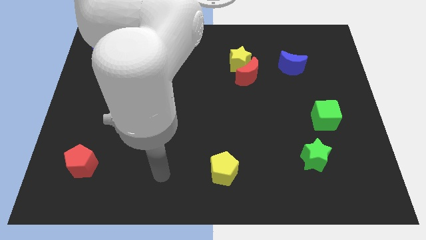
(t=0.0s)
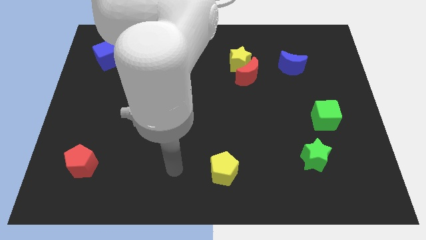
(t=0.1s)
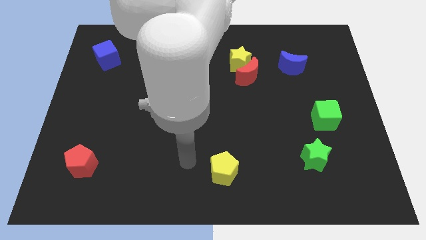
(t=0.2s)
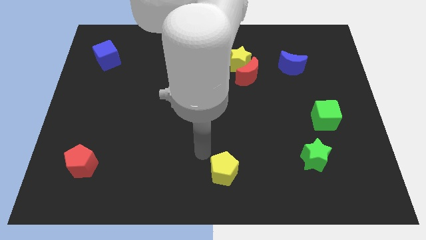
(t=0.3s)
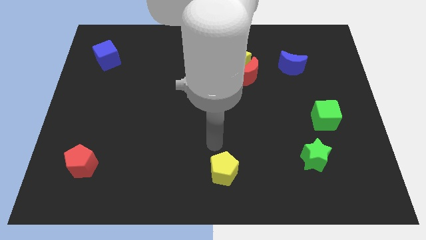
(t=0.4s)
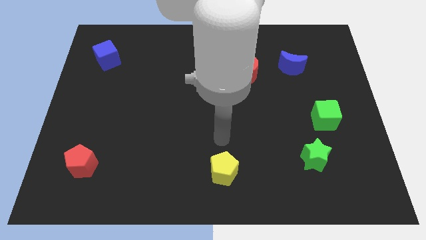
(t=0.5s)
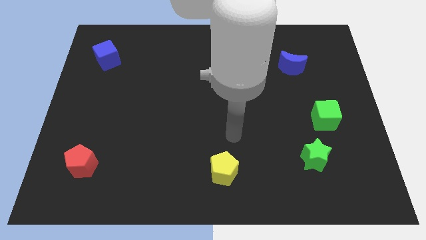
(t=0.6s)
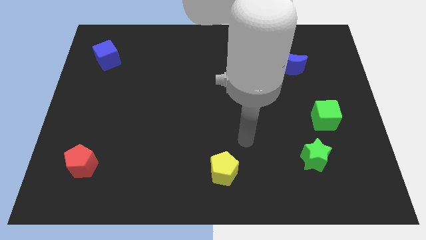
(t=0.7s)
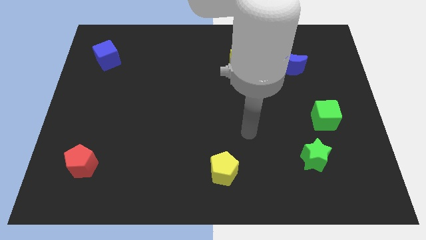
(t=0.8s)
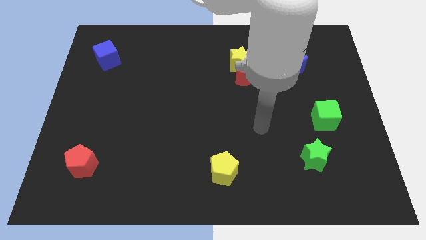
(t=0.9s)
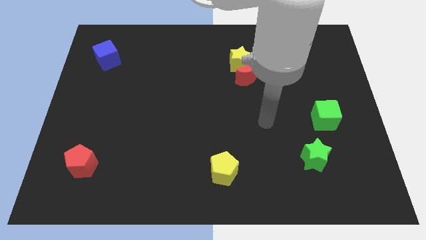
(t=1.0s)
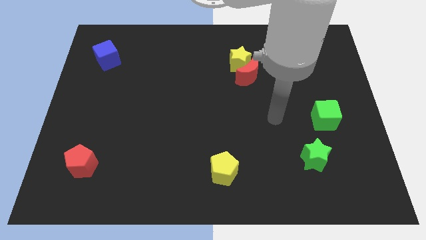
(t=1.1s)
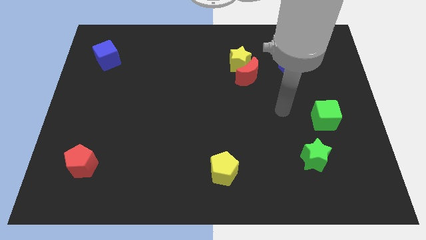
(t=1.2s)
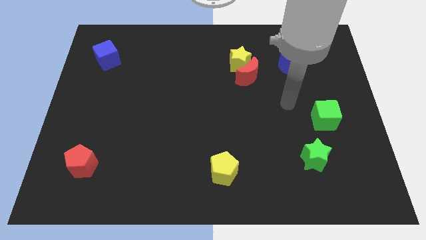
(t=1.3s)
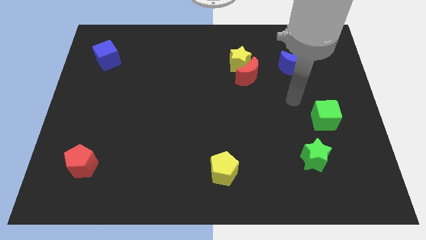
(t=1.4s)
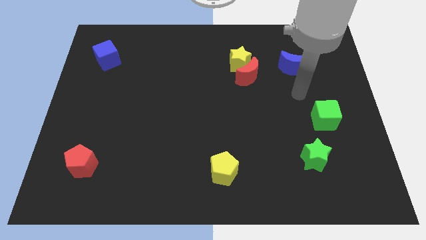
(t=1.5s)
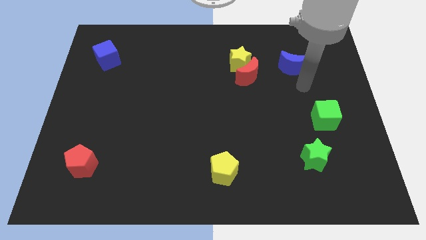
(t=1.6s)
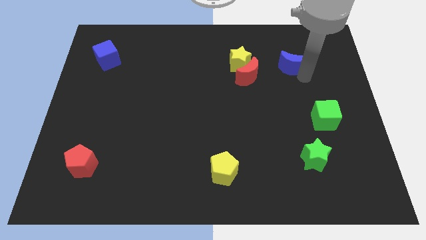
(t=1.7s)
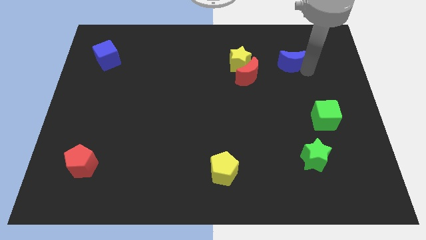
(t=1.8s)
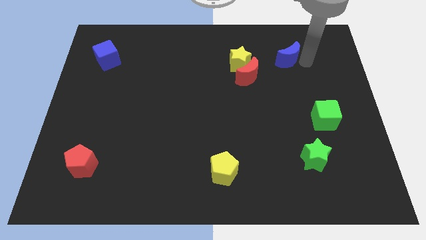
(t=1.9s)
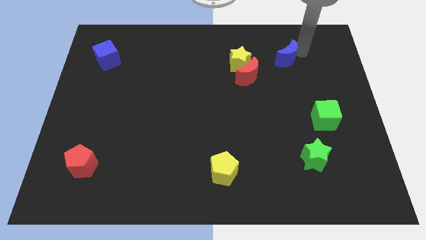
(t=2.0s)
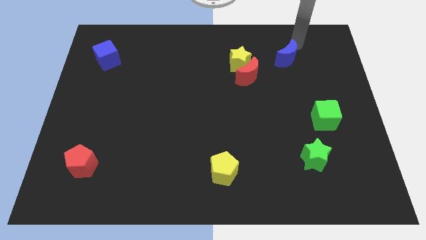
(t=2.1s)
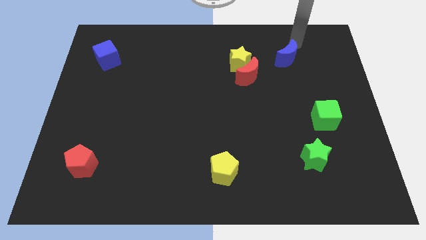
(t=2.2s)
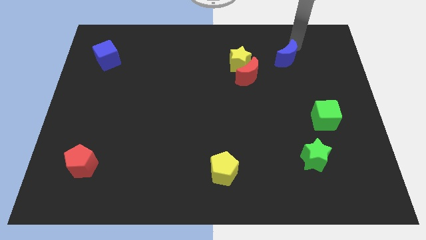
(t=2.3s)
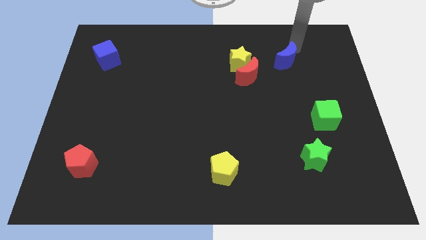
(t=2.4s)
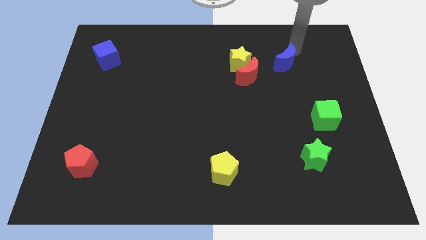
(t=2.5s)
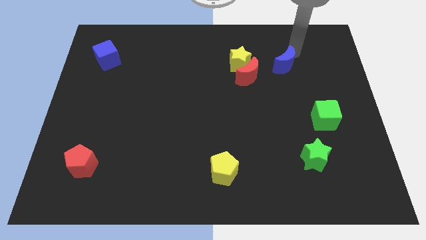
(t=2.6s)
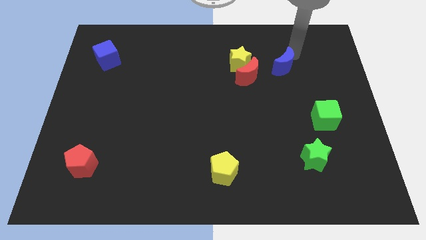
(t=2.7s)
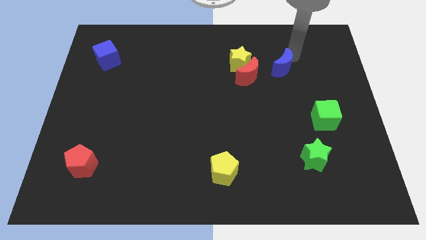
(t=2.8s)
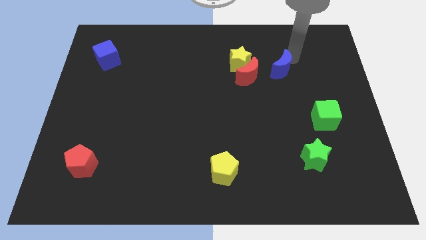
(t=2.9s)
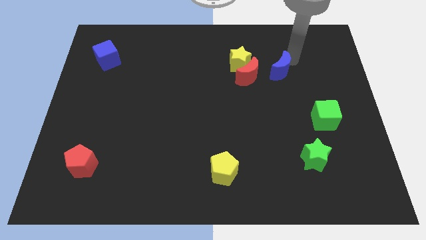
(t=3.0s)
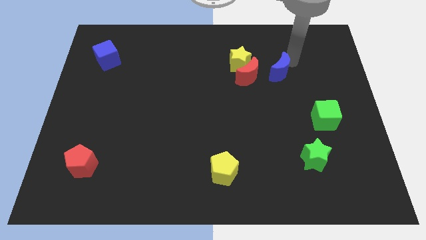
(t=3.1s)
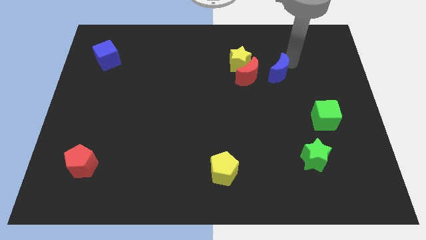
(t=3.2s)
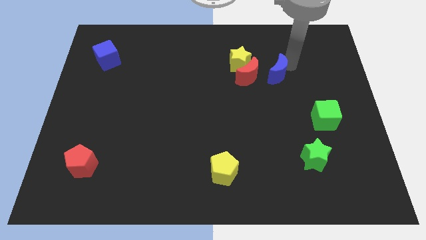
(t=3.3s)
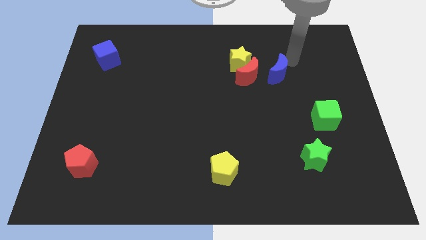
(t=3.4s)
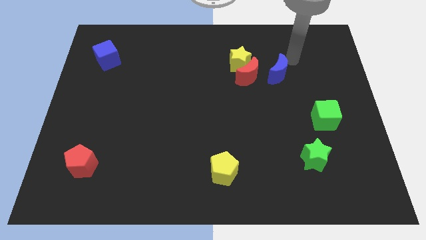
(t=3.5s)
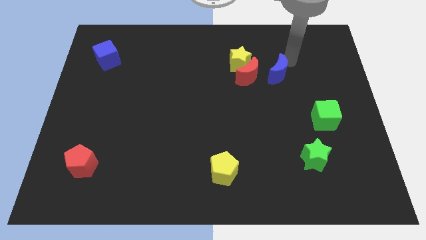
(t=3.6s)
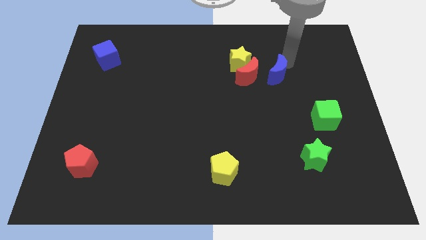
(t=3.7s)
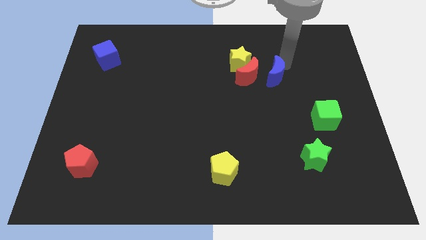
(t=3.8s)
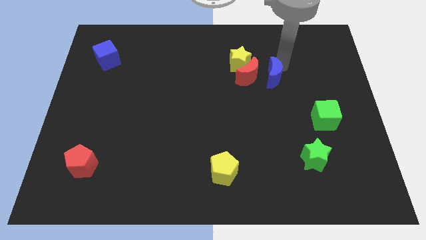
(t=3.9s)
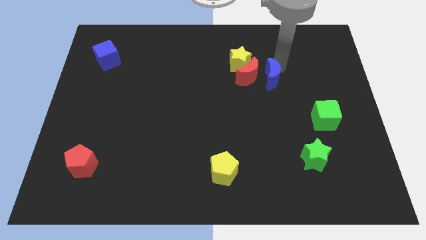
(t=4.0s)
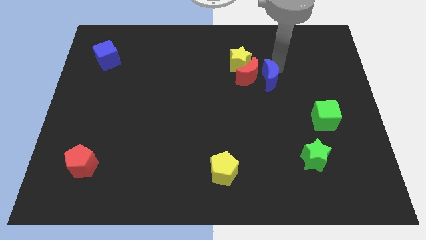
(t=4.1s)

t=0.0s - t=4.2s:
slightly push the blue moon down and to the left

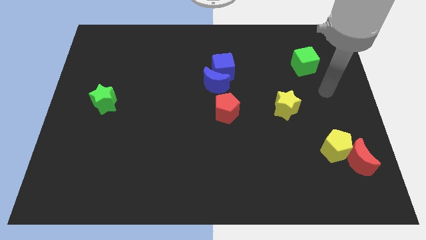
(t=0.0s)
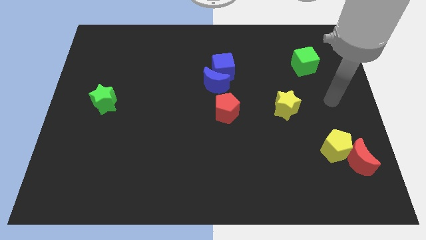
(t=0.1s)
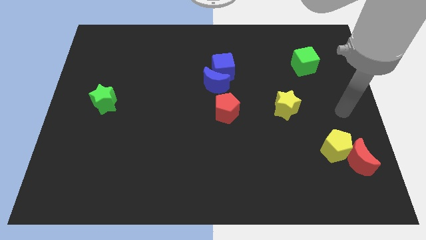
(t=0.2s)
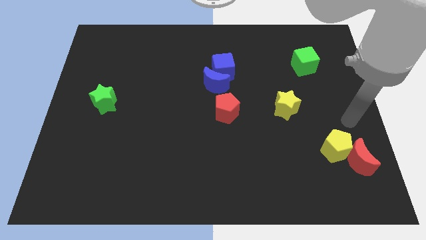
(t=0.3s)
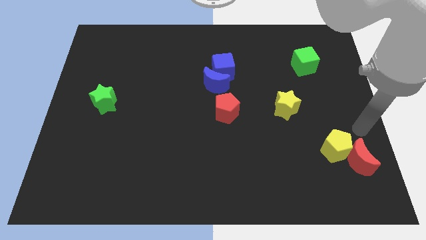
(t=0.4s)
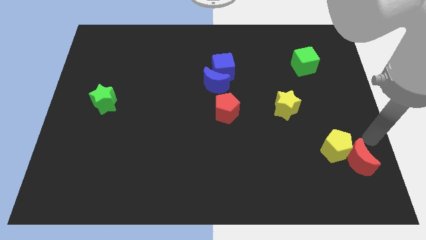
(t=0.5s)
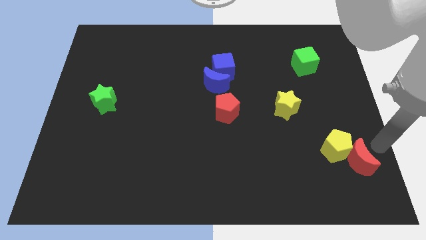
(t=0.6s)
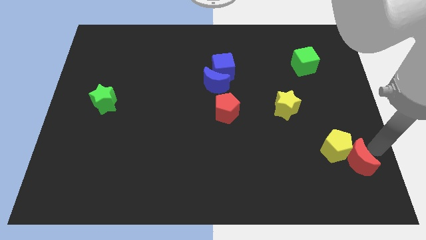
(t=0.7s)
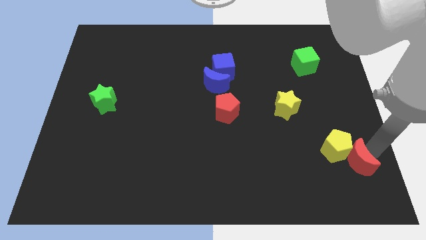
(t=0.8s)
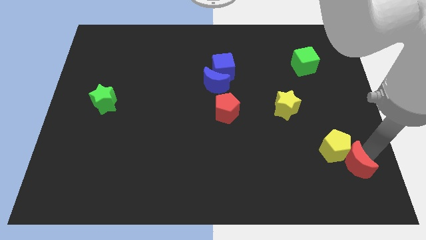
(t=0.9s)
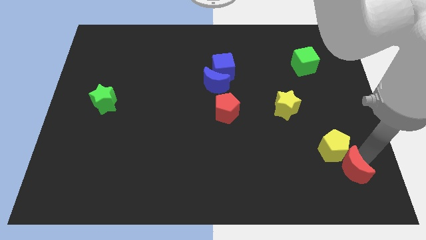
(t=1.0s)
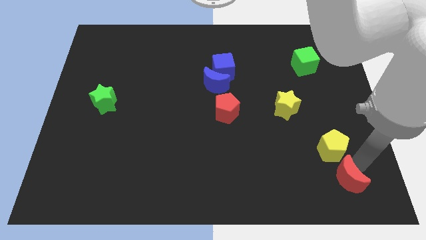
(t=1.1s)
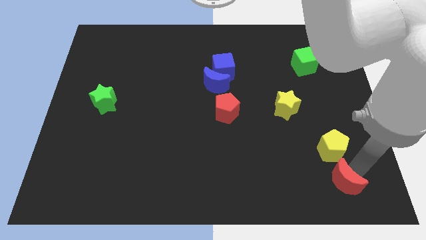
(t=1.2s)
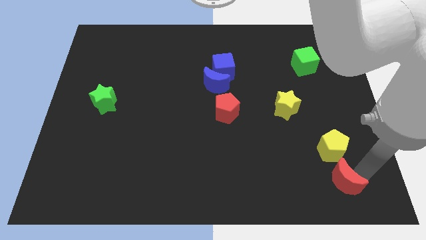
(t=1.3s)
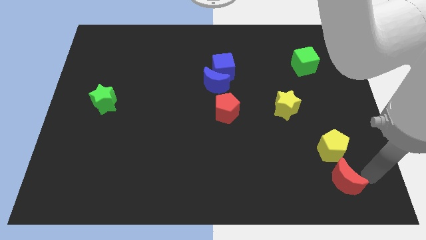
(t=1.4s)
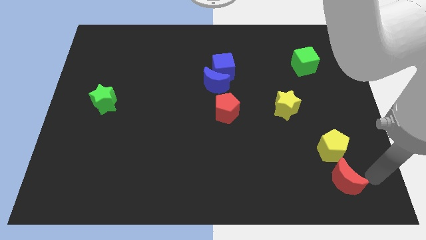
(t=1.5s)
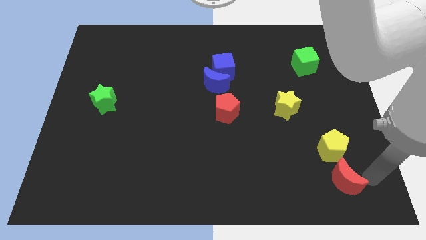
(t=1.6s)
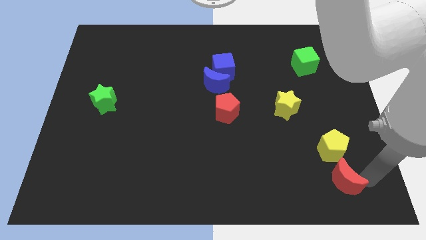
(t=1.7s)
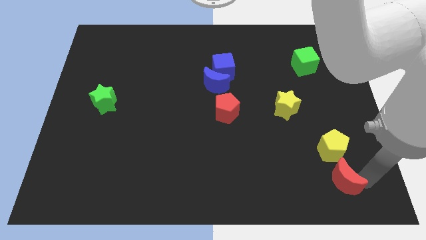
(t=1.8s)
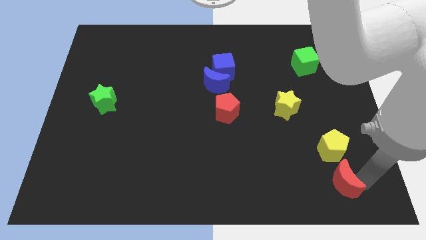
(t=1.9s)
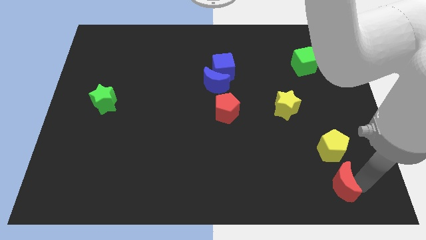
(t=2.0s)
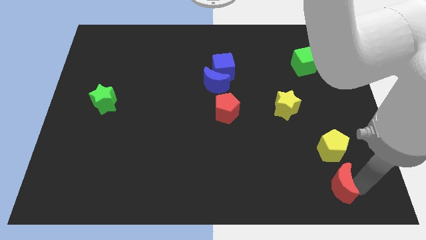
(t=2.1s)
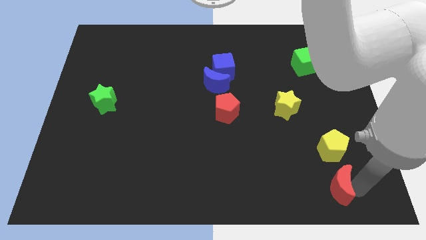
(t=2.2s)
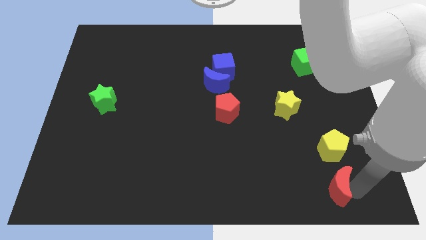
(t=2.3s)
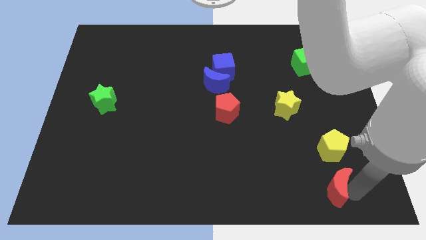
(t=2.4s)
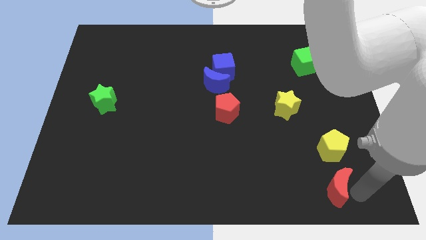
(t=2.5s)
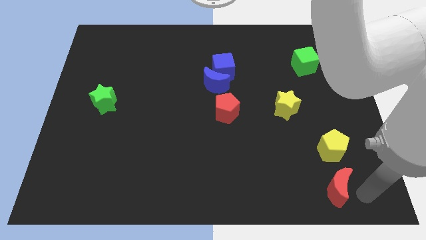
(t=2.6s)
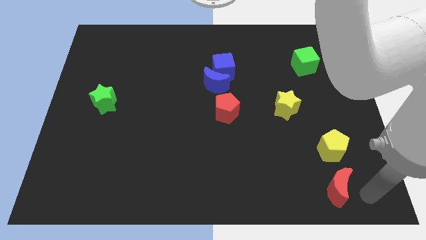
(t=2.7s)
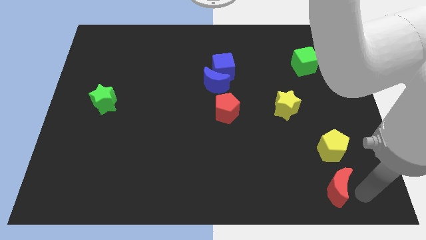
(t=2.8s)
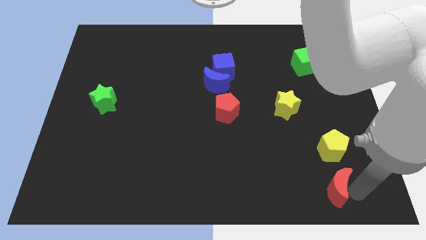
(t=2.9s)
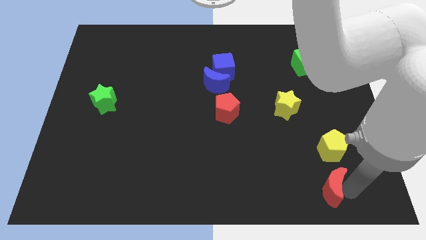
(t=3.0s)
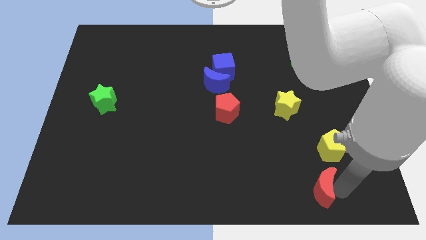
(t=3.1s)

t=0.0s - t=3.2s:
move the red moon a bit to the left

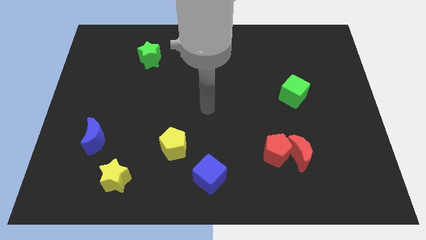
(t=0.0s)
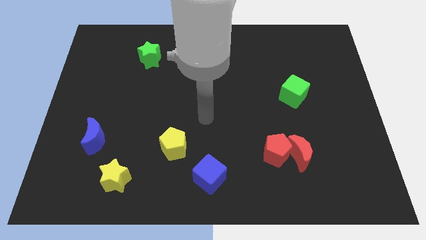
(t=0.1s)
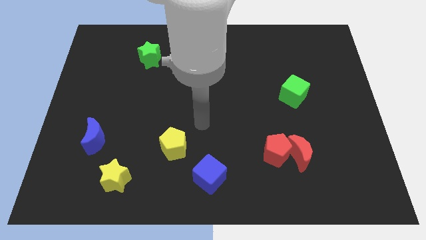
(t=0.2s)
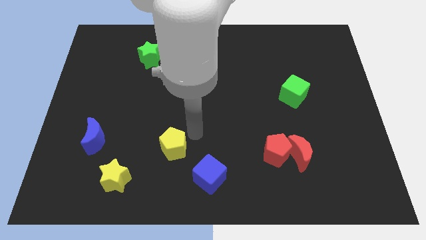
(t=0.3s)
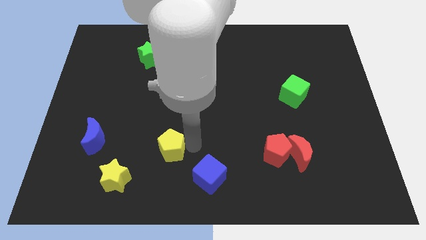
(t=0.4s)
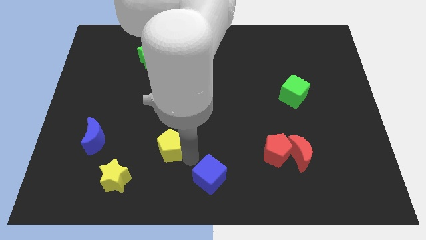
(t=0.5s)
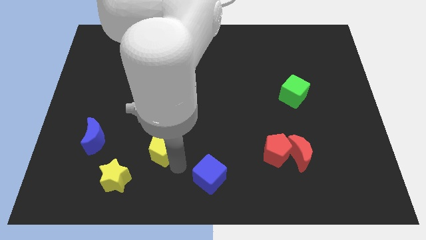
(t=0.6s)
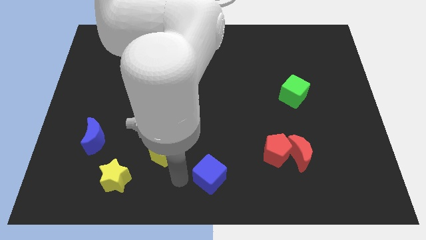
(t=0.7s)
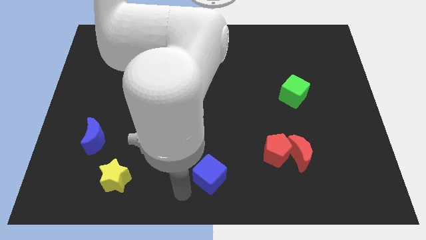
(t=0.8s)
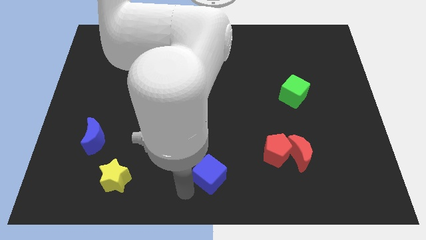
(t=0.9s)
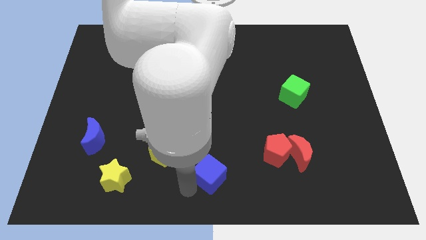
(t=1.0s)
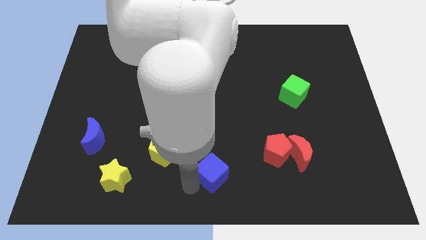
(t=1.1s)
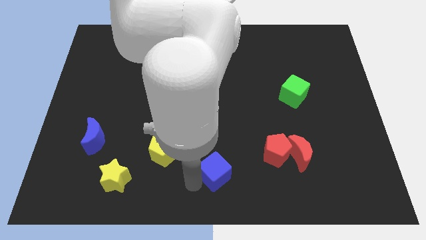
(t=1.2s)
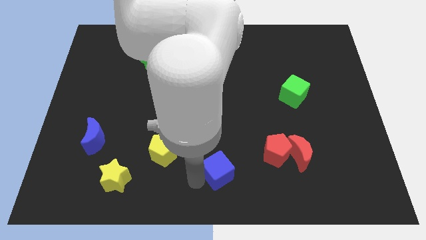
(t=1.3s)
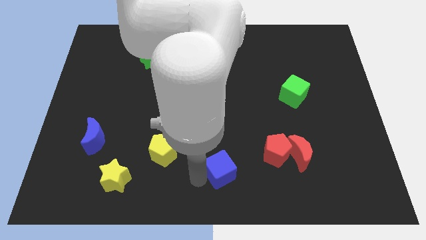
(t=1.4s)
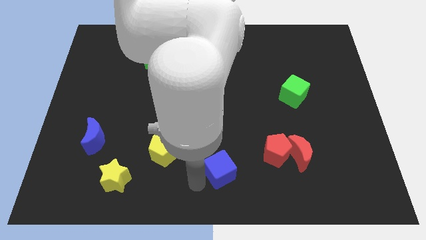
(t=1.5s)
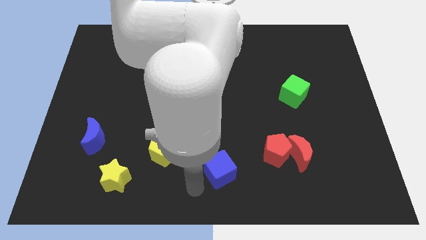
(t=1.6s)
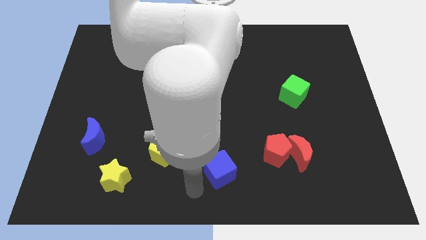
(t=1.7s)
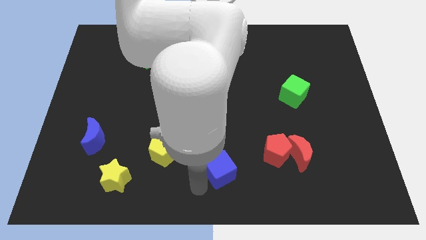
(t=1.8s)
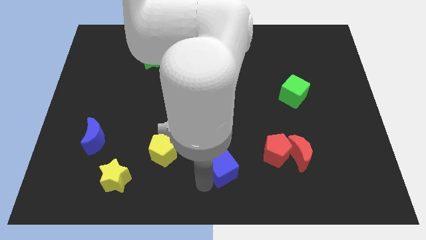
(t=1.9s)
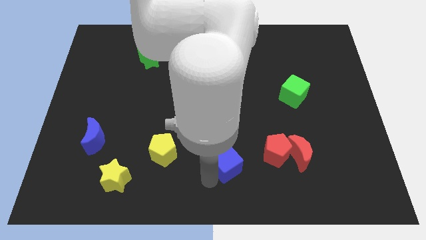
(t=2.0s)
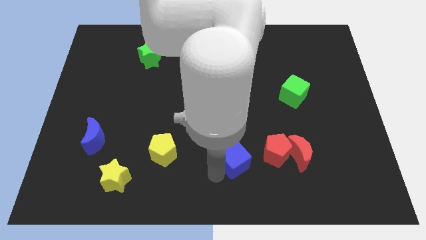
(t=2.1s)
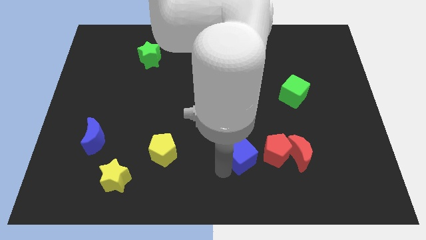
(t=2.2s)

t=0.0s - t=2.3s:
push the blue cube a bit upwards and right
